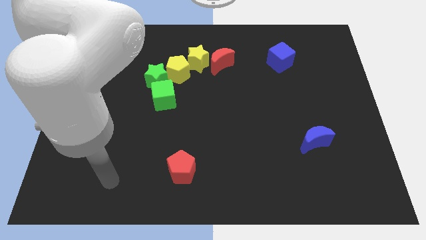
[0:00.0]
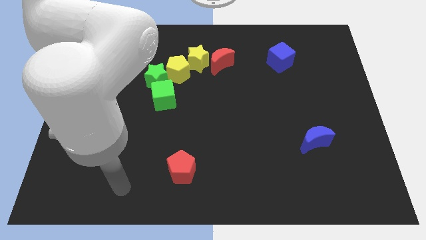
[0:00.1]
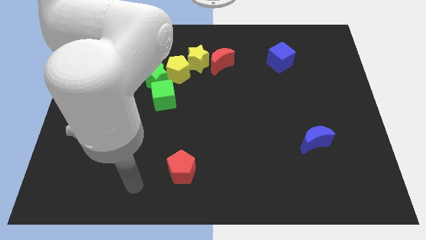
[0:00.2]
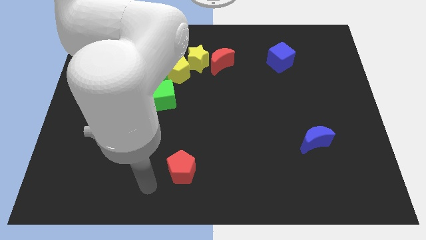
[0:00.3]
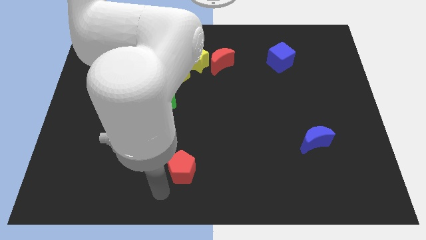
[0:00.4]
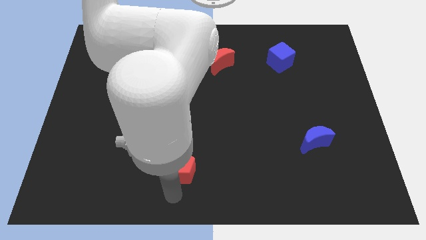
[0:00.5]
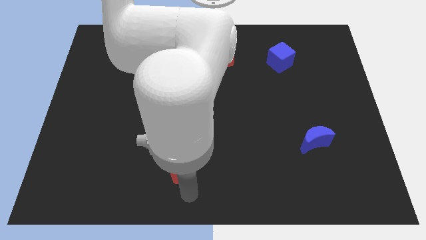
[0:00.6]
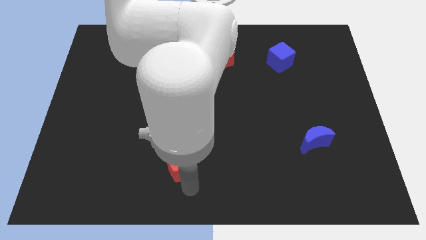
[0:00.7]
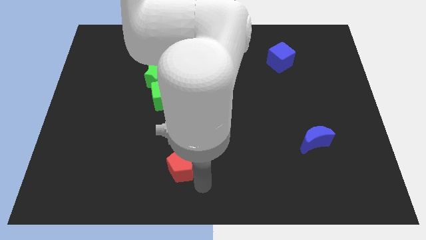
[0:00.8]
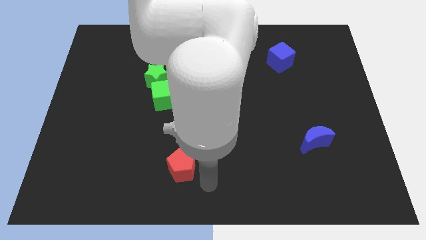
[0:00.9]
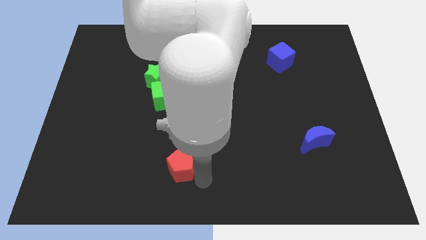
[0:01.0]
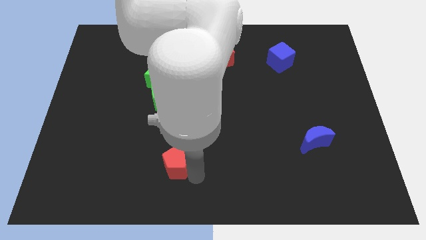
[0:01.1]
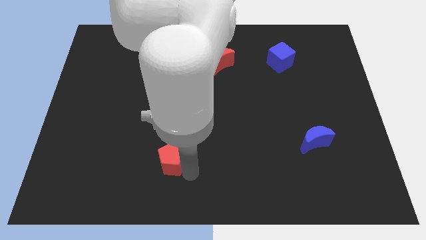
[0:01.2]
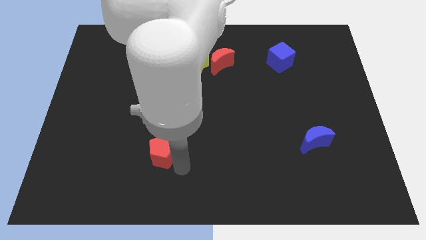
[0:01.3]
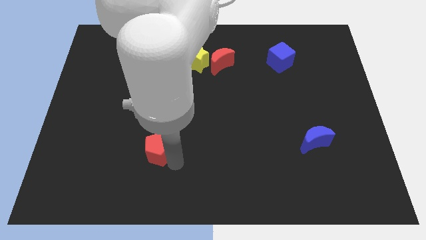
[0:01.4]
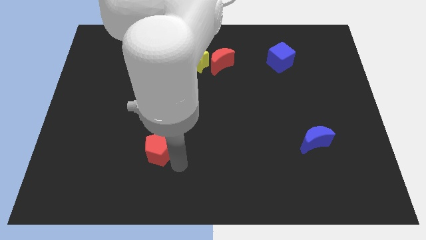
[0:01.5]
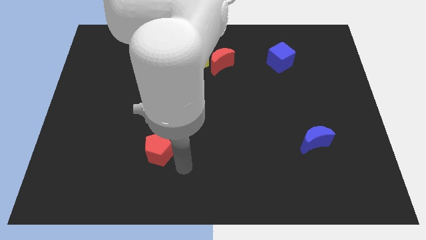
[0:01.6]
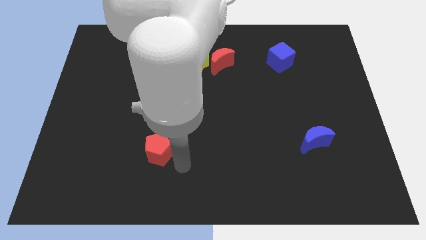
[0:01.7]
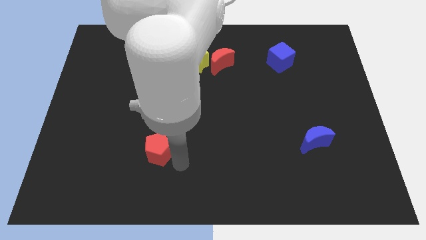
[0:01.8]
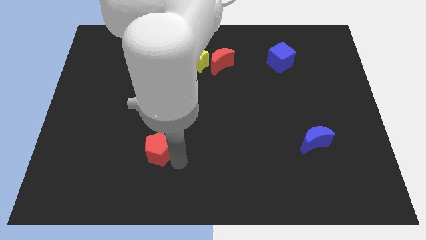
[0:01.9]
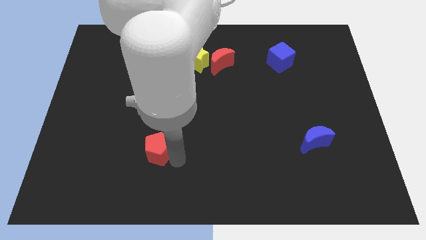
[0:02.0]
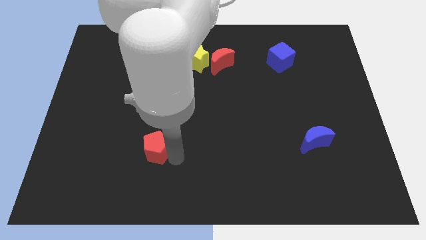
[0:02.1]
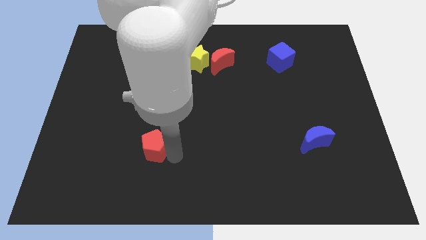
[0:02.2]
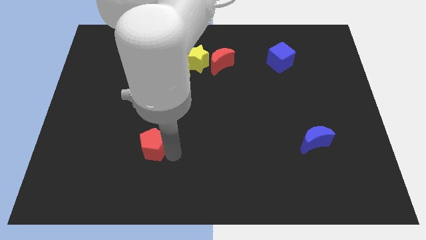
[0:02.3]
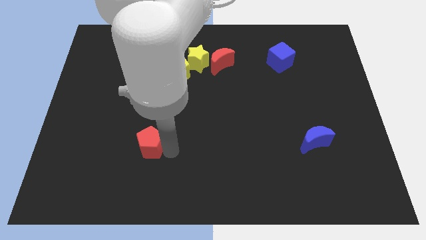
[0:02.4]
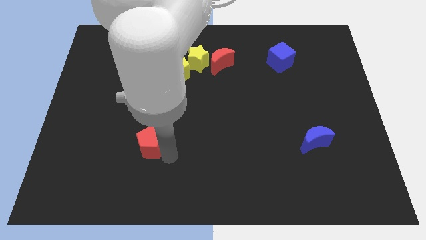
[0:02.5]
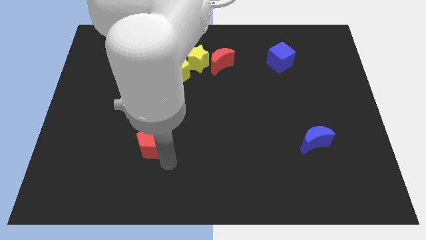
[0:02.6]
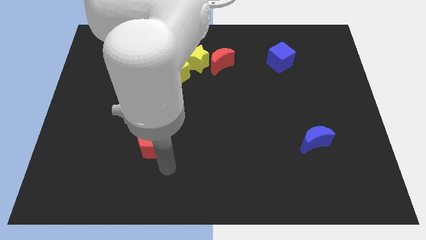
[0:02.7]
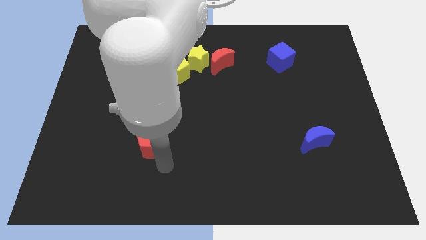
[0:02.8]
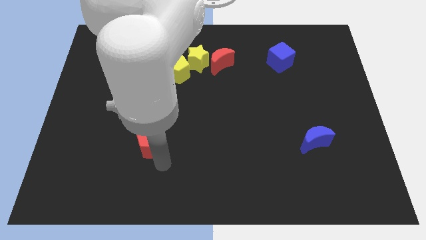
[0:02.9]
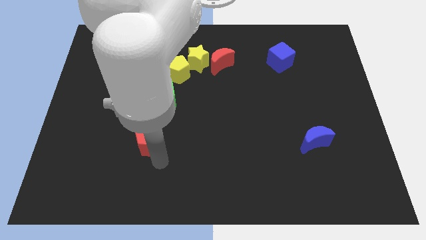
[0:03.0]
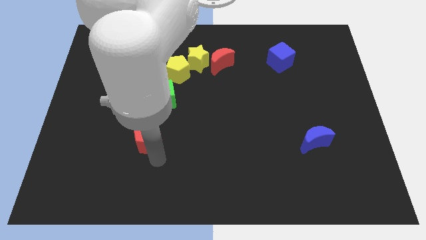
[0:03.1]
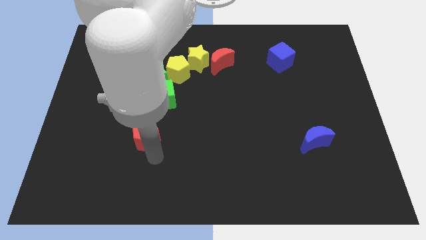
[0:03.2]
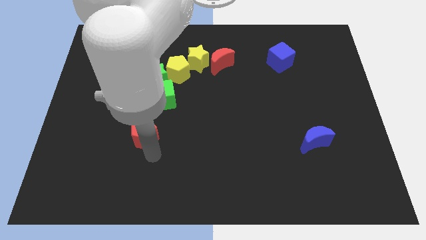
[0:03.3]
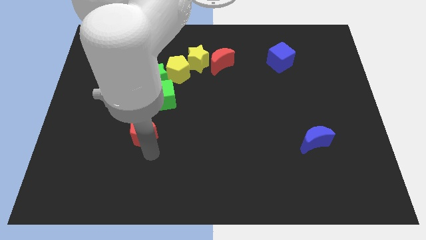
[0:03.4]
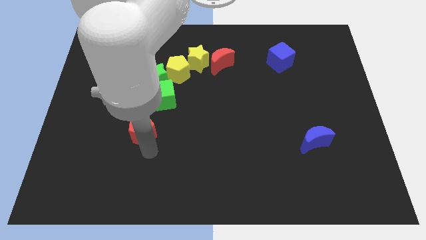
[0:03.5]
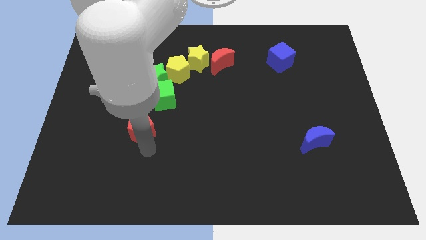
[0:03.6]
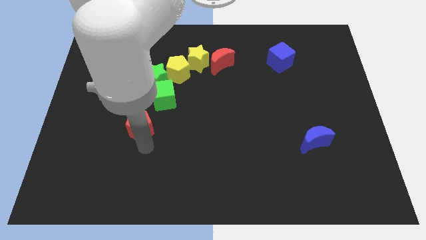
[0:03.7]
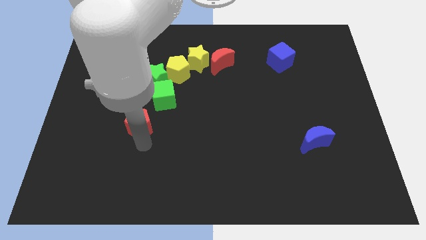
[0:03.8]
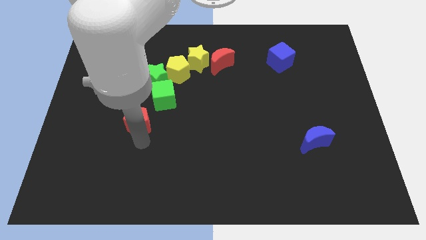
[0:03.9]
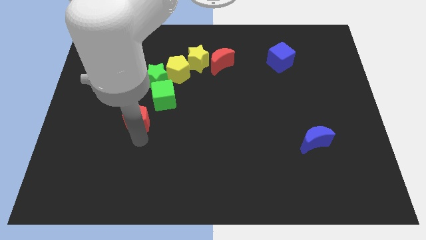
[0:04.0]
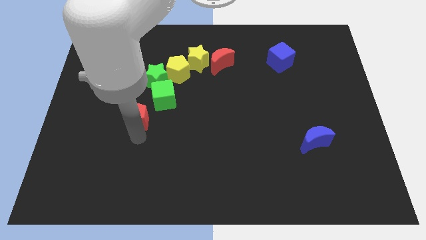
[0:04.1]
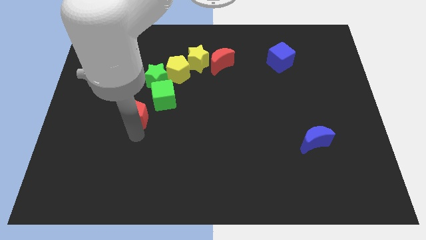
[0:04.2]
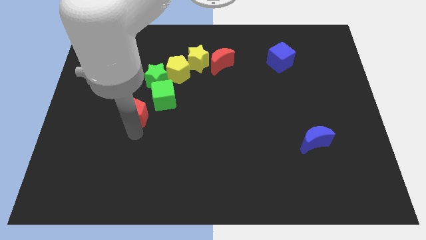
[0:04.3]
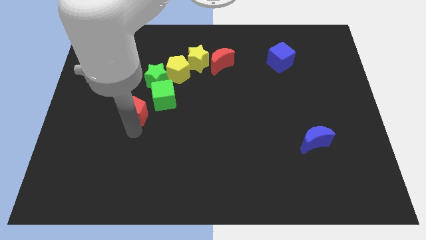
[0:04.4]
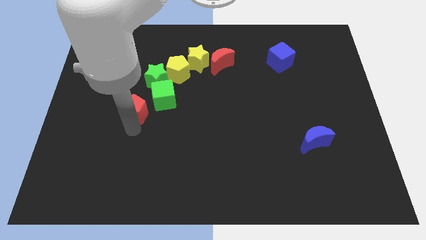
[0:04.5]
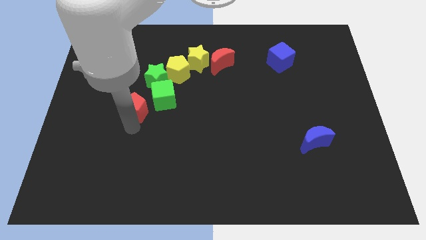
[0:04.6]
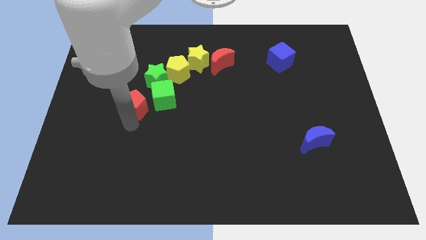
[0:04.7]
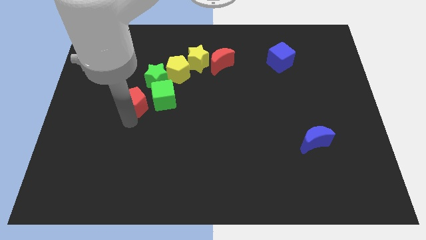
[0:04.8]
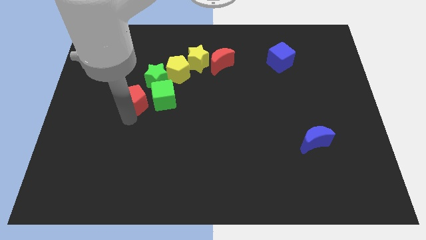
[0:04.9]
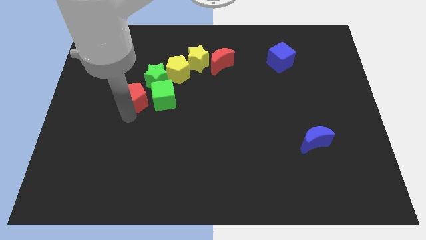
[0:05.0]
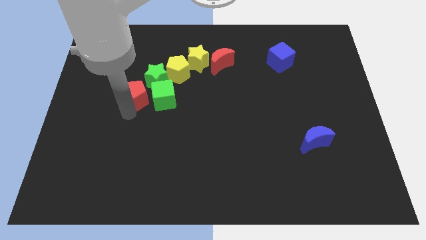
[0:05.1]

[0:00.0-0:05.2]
put the red pentagon to the bottom left side of the yellow pentagon

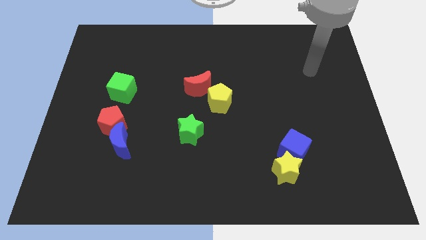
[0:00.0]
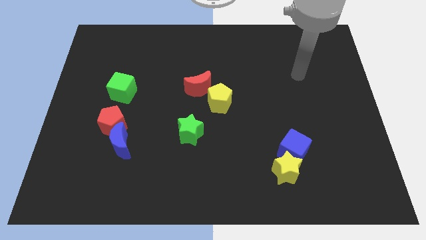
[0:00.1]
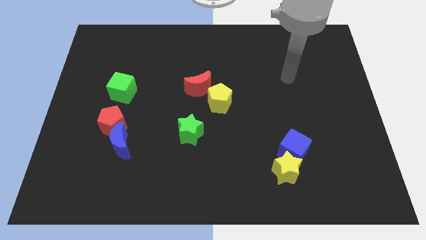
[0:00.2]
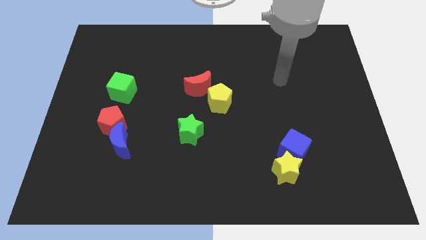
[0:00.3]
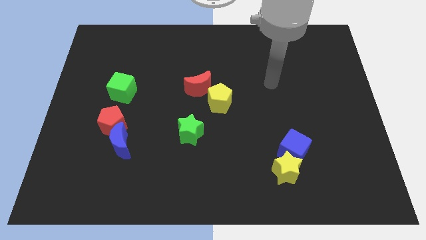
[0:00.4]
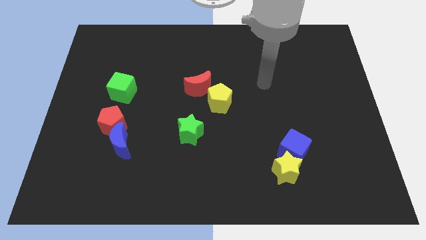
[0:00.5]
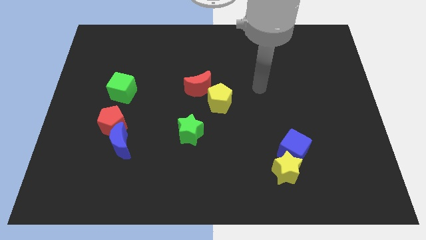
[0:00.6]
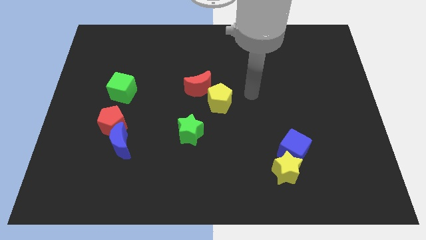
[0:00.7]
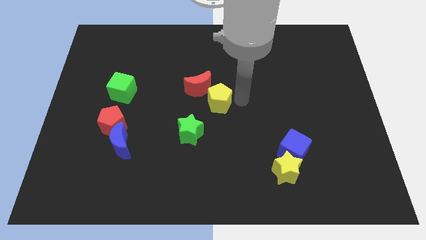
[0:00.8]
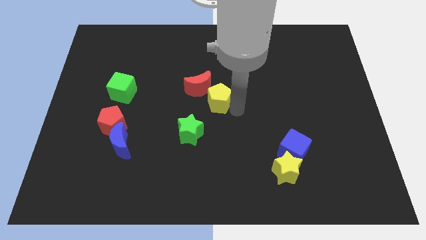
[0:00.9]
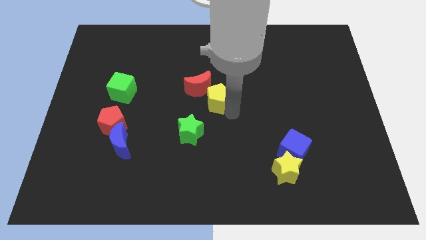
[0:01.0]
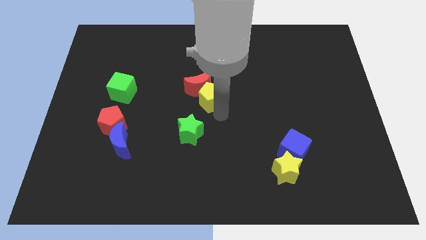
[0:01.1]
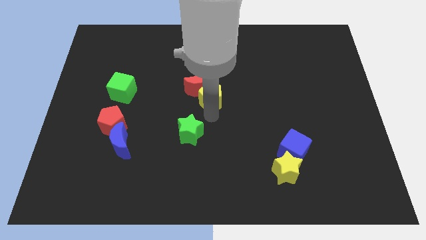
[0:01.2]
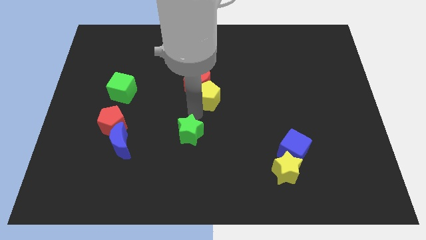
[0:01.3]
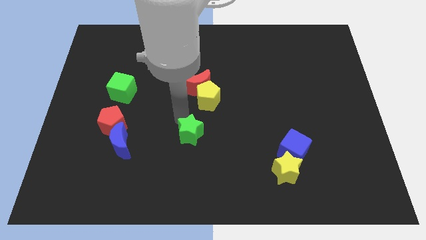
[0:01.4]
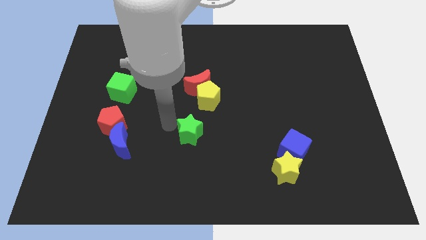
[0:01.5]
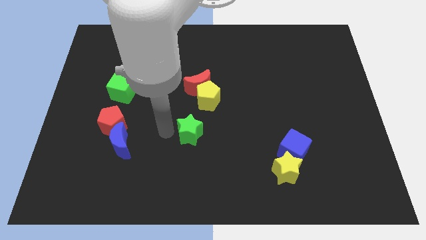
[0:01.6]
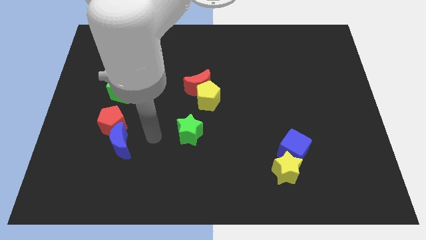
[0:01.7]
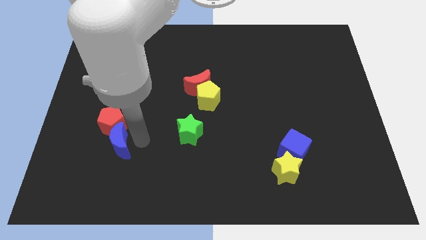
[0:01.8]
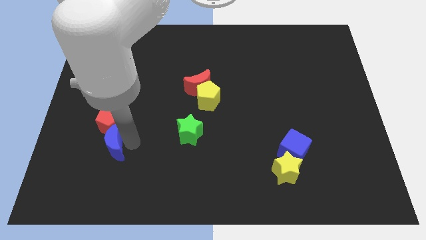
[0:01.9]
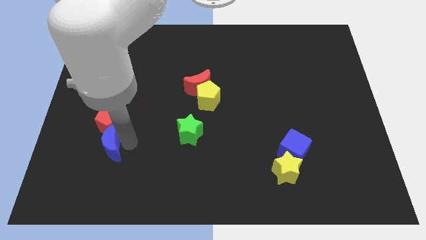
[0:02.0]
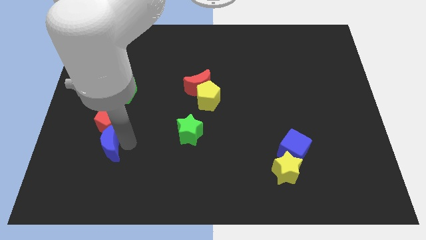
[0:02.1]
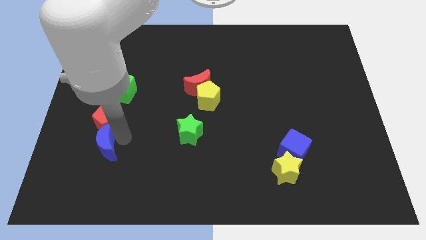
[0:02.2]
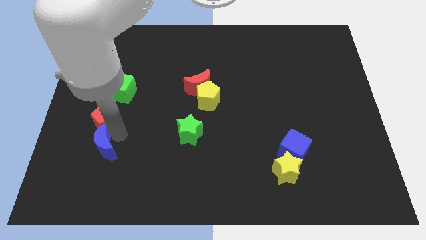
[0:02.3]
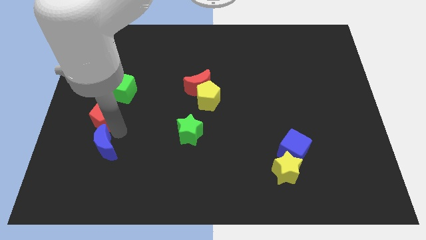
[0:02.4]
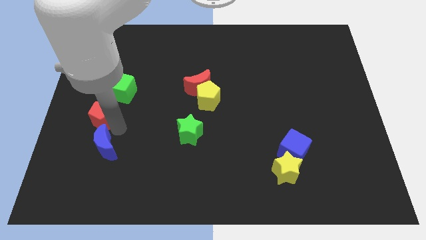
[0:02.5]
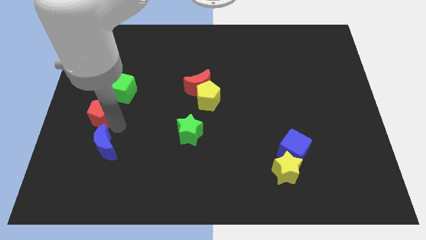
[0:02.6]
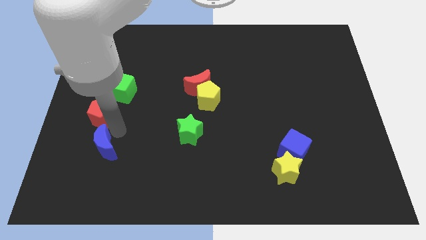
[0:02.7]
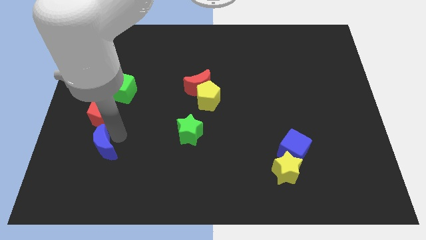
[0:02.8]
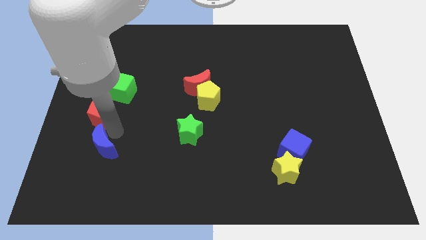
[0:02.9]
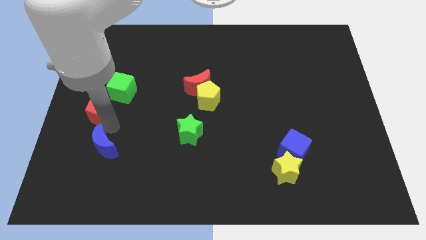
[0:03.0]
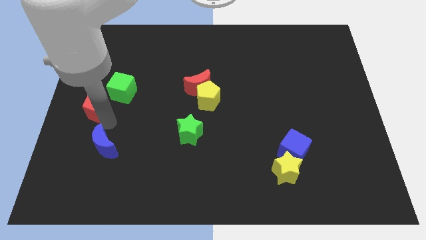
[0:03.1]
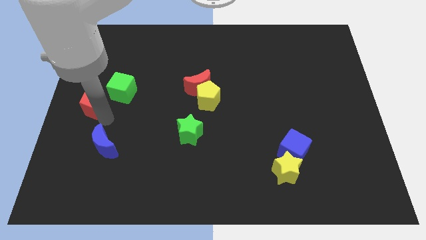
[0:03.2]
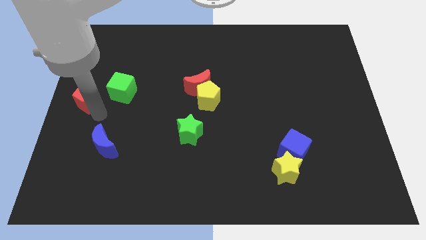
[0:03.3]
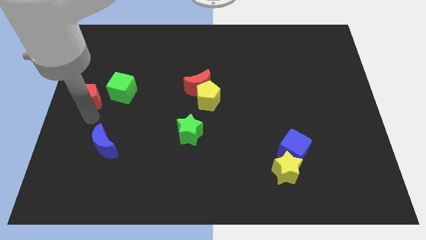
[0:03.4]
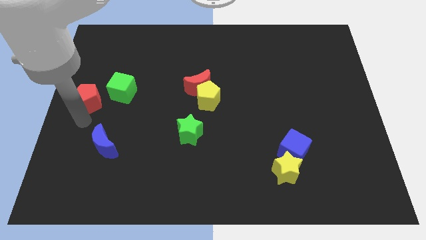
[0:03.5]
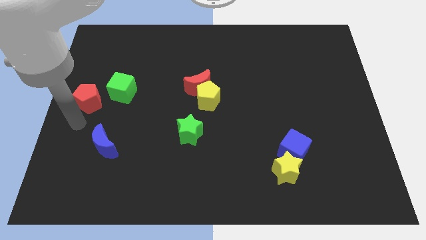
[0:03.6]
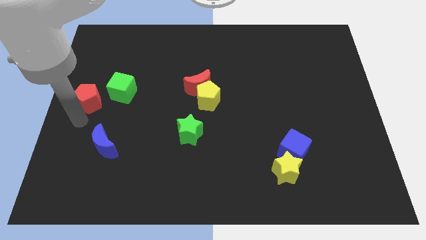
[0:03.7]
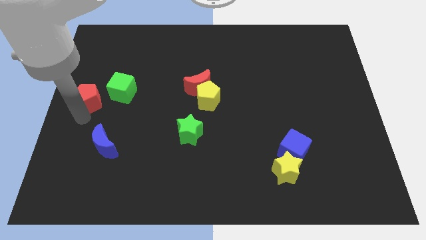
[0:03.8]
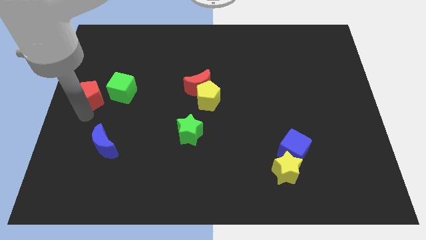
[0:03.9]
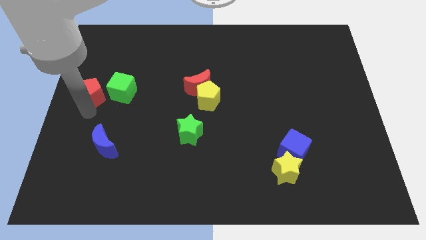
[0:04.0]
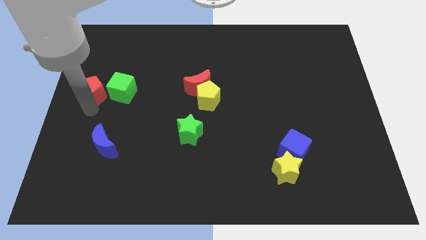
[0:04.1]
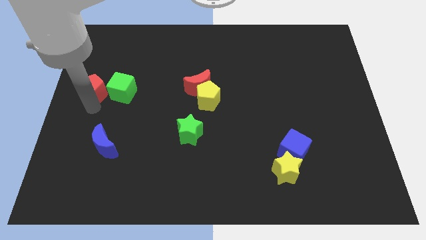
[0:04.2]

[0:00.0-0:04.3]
put the red pentagon to the top left side of the green cube
